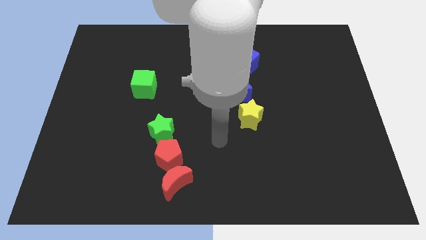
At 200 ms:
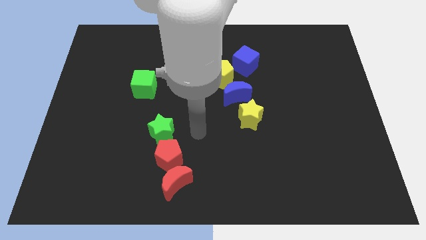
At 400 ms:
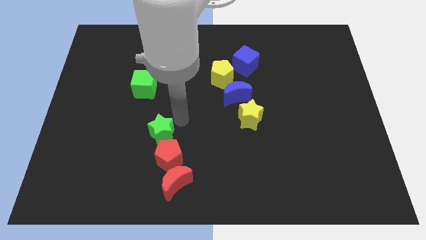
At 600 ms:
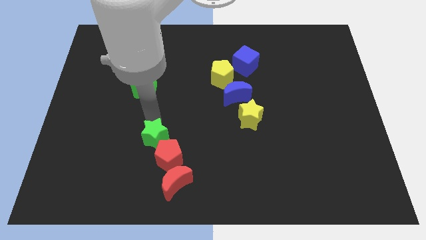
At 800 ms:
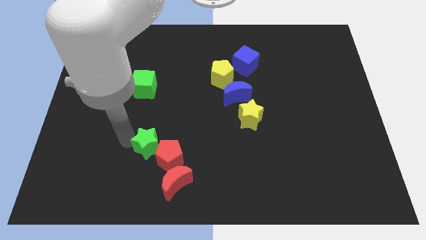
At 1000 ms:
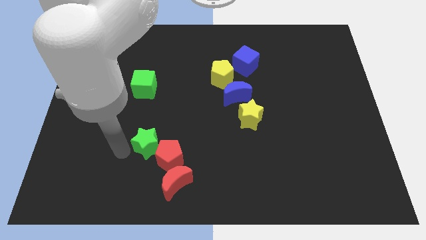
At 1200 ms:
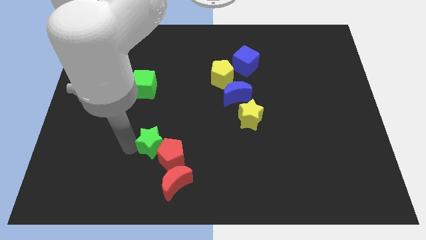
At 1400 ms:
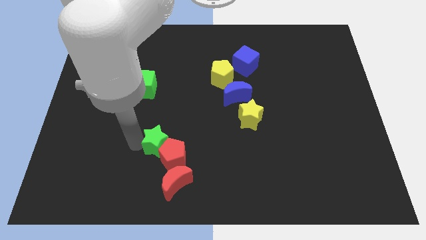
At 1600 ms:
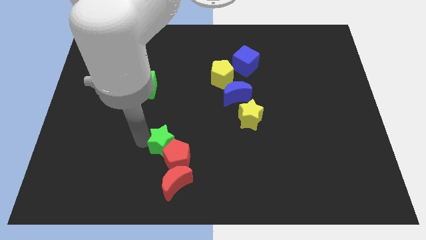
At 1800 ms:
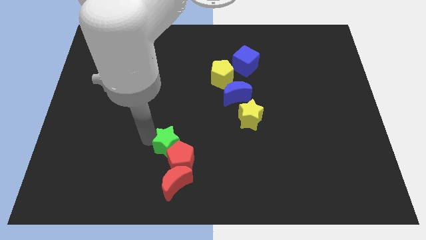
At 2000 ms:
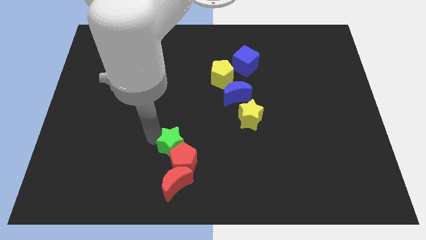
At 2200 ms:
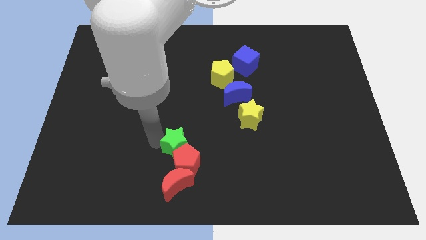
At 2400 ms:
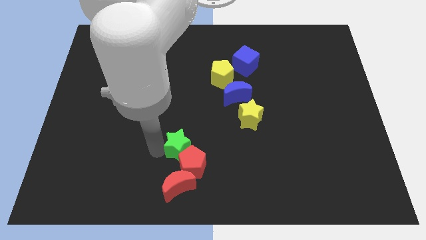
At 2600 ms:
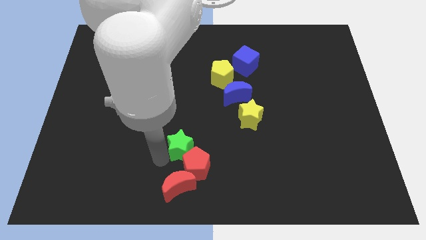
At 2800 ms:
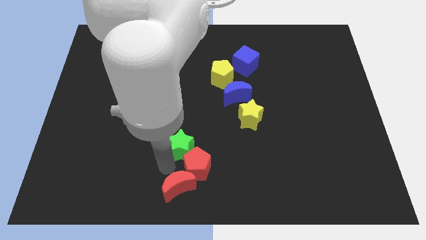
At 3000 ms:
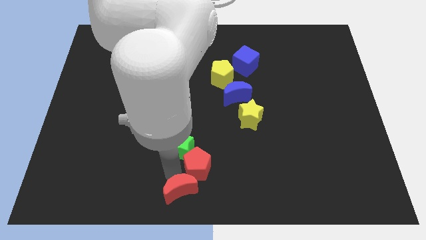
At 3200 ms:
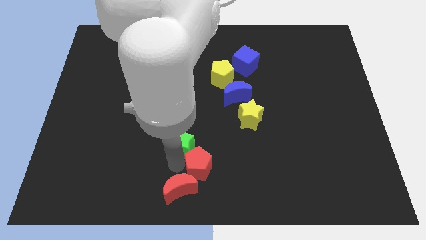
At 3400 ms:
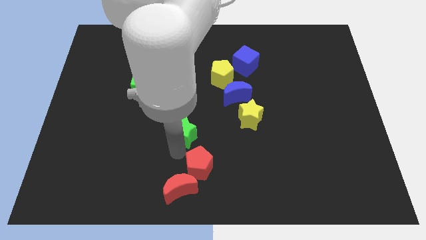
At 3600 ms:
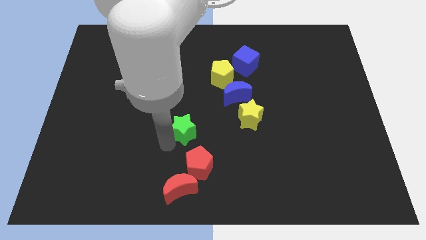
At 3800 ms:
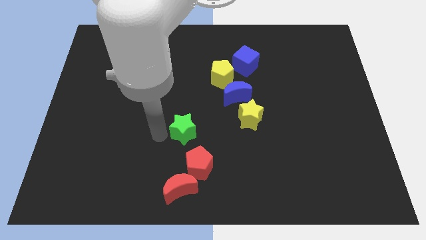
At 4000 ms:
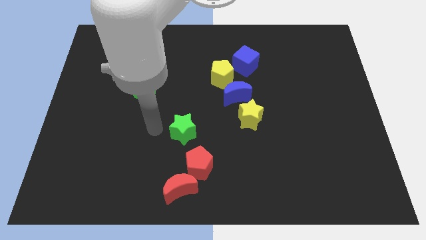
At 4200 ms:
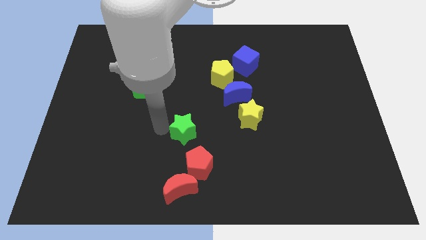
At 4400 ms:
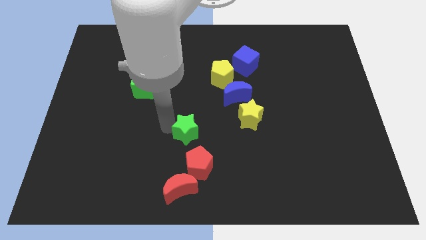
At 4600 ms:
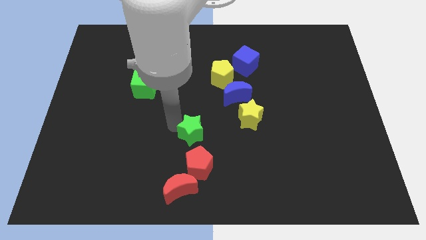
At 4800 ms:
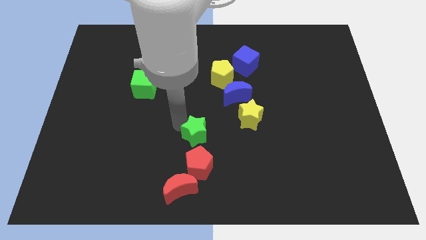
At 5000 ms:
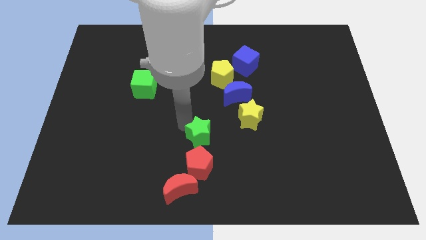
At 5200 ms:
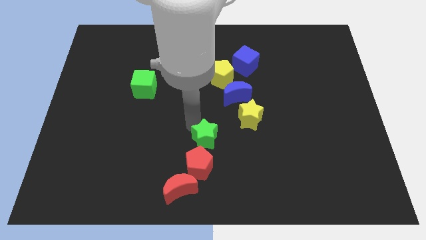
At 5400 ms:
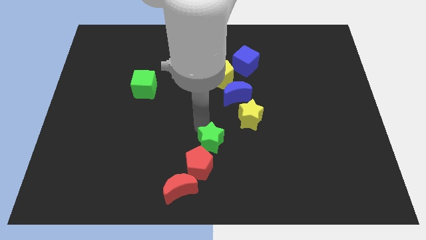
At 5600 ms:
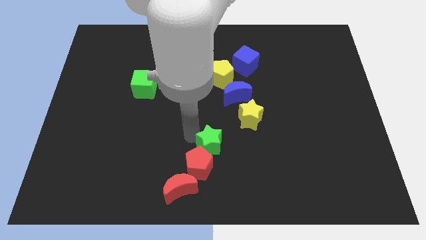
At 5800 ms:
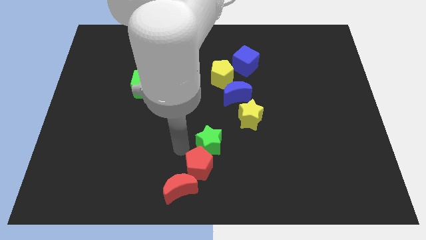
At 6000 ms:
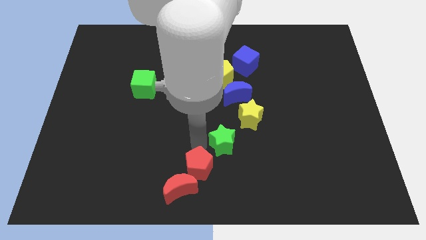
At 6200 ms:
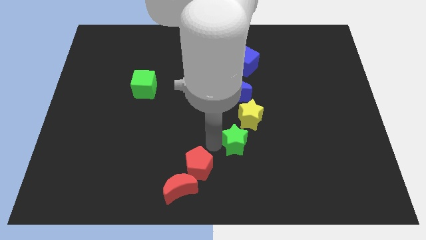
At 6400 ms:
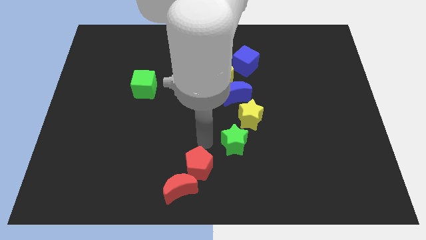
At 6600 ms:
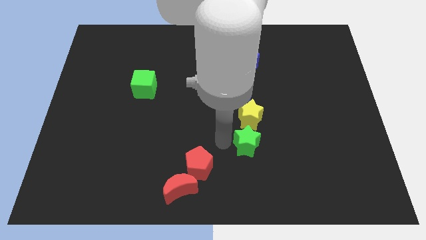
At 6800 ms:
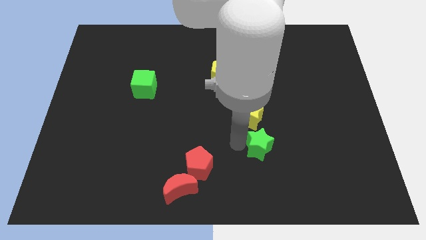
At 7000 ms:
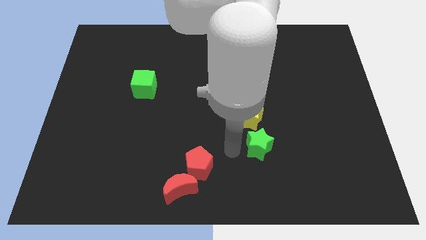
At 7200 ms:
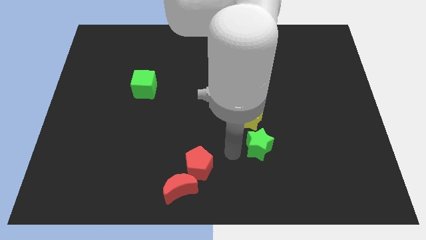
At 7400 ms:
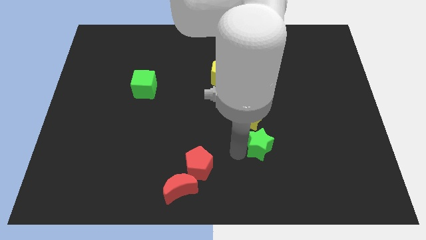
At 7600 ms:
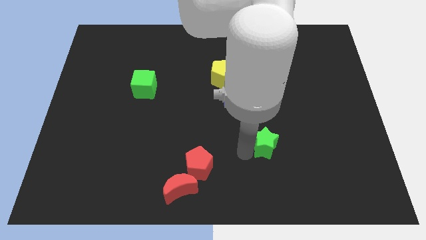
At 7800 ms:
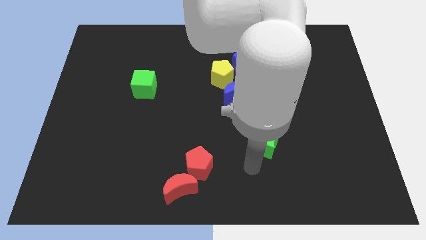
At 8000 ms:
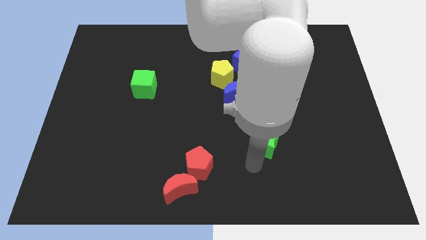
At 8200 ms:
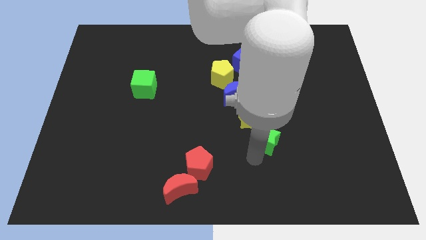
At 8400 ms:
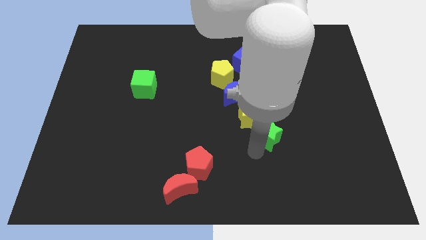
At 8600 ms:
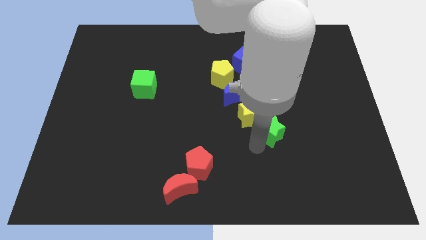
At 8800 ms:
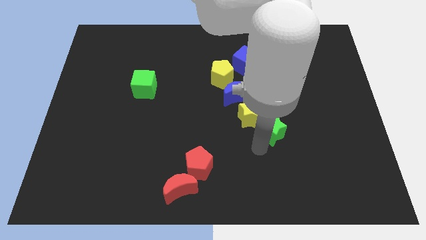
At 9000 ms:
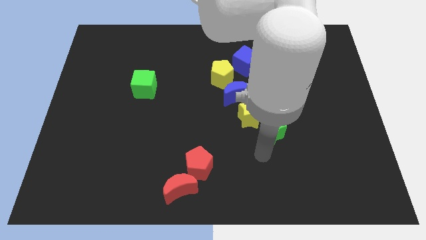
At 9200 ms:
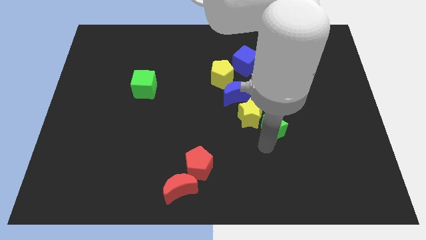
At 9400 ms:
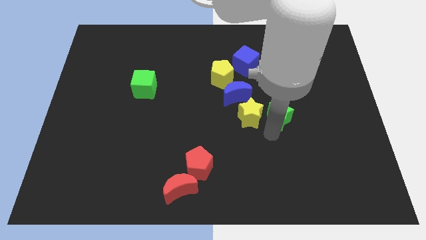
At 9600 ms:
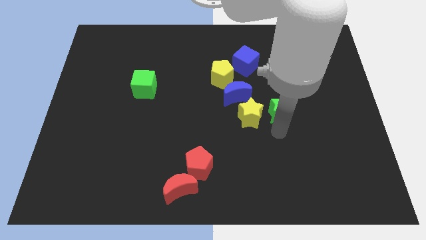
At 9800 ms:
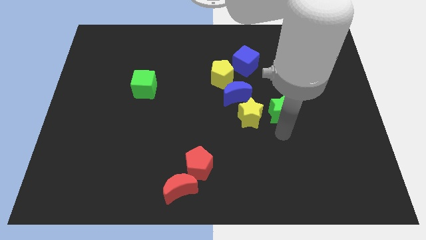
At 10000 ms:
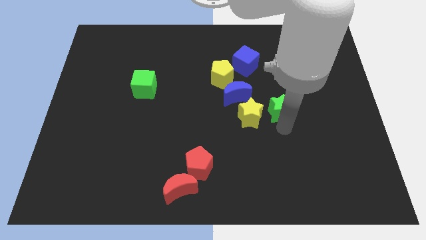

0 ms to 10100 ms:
push the green star right of the blue moon

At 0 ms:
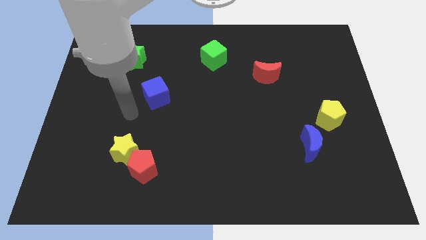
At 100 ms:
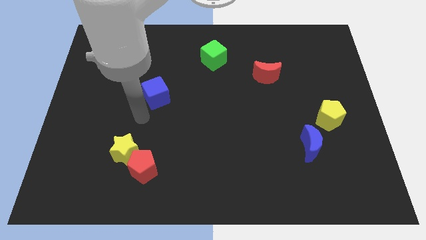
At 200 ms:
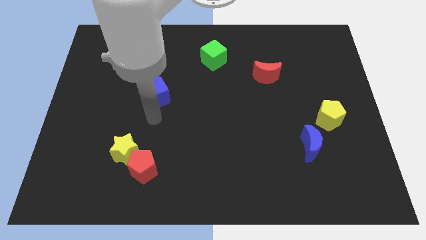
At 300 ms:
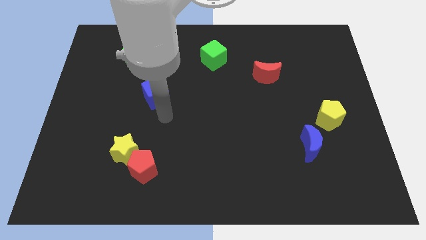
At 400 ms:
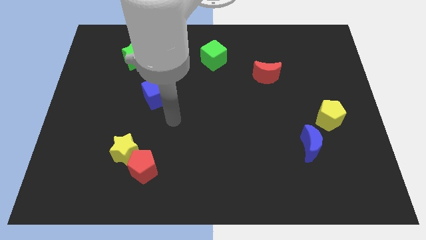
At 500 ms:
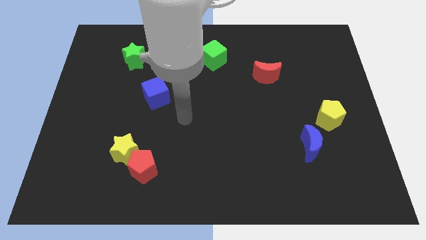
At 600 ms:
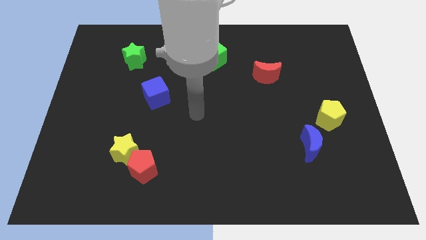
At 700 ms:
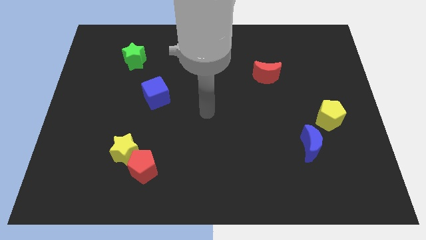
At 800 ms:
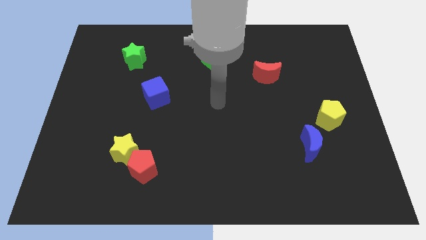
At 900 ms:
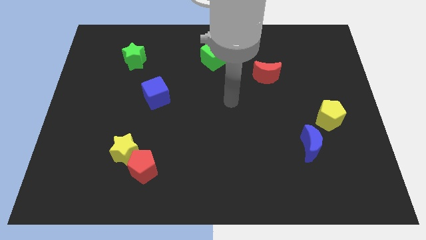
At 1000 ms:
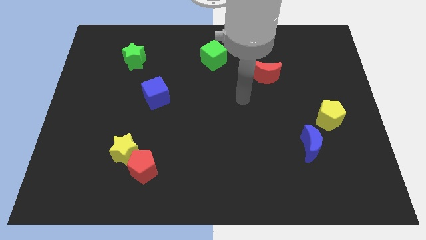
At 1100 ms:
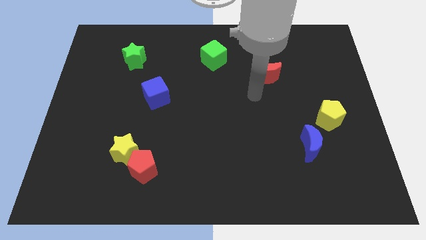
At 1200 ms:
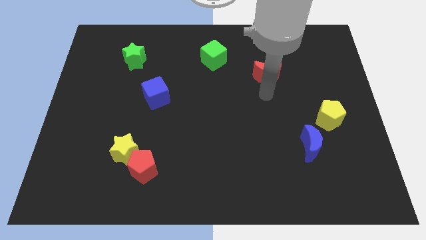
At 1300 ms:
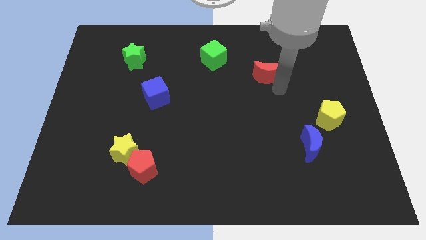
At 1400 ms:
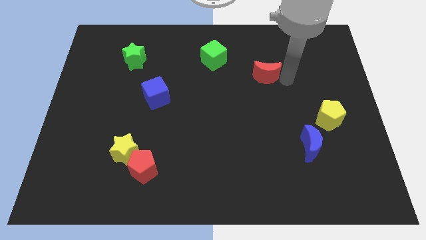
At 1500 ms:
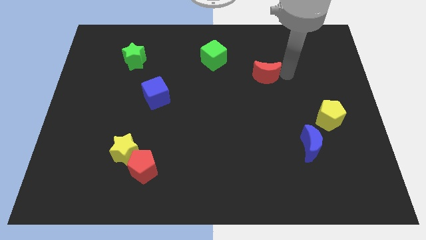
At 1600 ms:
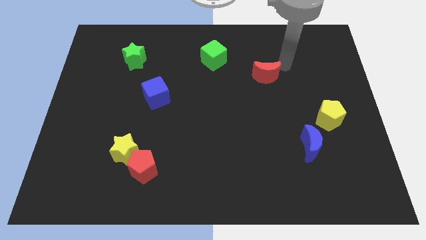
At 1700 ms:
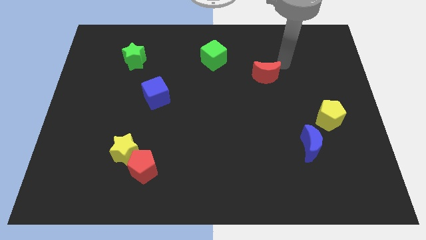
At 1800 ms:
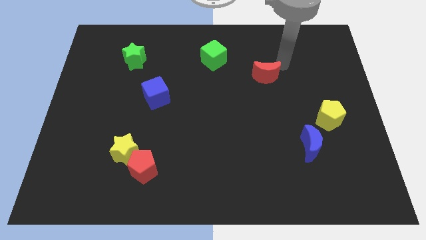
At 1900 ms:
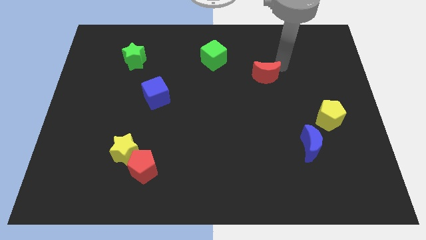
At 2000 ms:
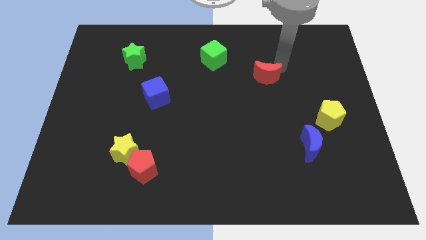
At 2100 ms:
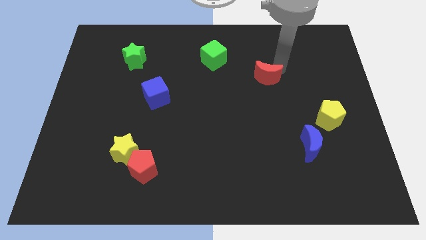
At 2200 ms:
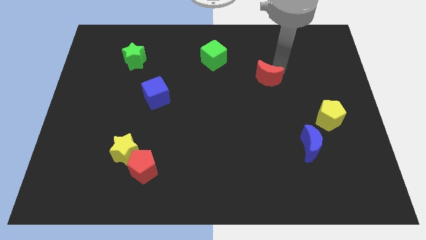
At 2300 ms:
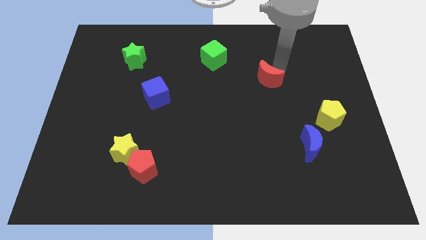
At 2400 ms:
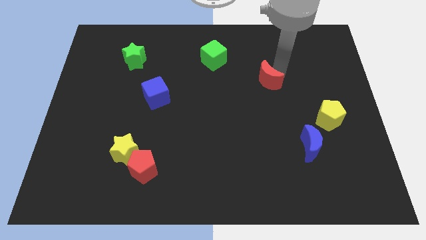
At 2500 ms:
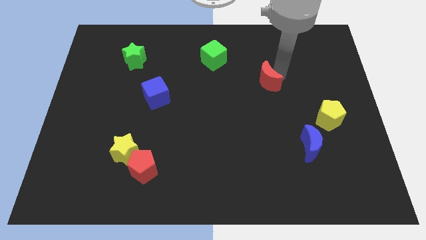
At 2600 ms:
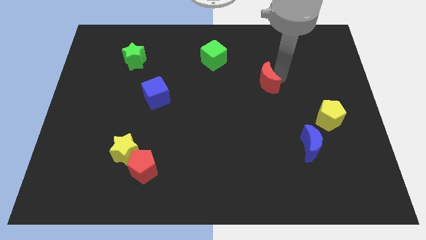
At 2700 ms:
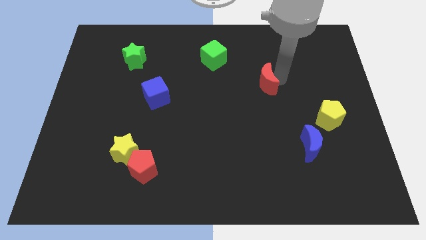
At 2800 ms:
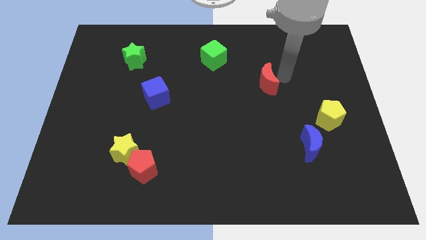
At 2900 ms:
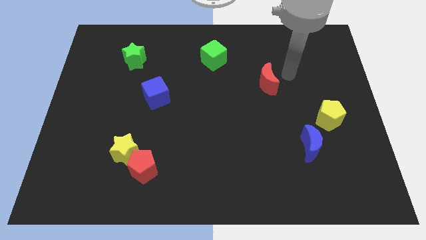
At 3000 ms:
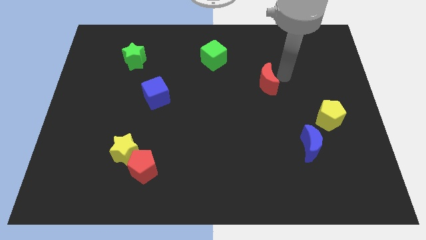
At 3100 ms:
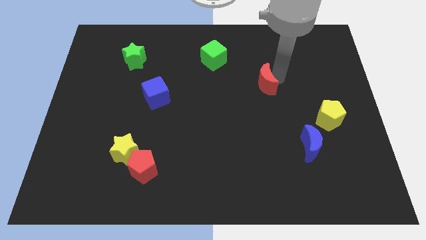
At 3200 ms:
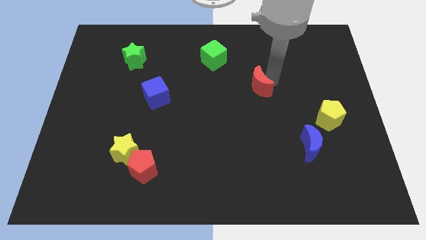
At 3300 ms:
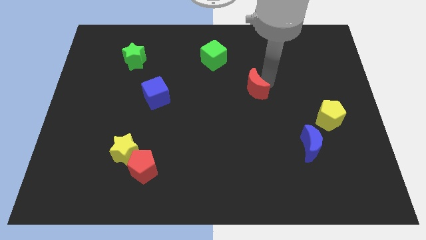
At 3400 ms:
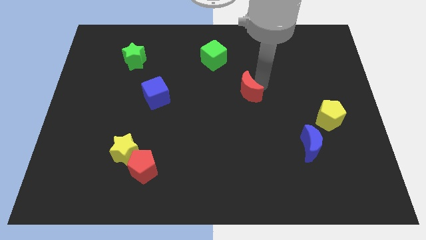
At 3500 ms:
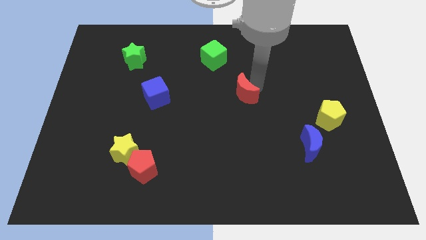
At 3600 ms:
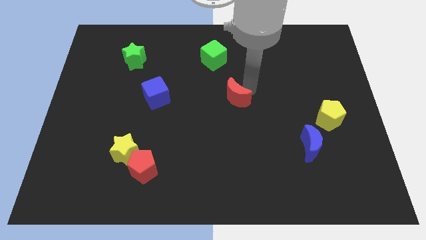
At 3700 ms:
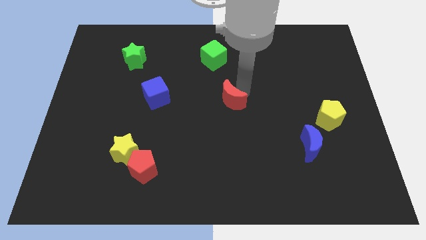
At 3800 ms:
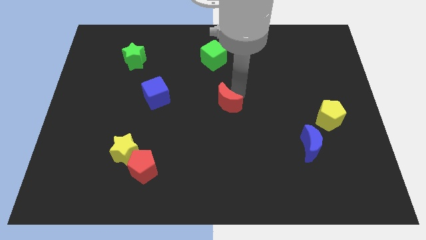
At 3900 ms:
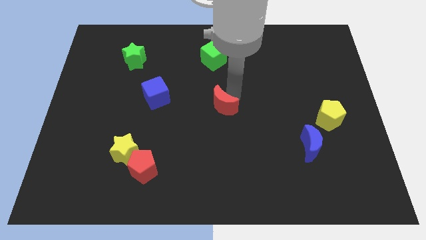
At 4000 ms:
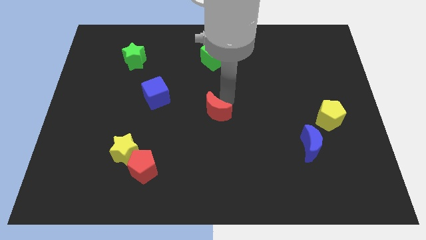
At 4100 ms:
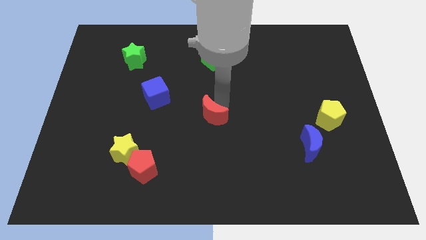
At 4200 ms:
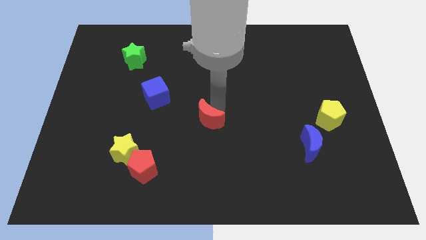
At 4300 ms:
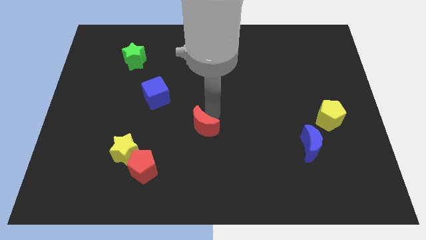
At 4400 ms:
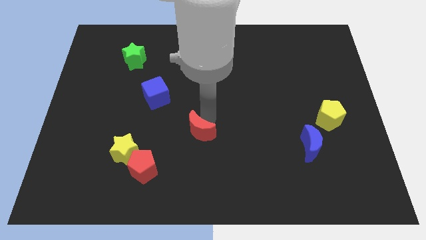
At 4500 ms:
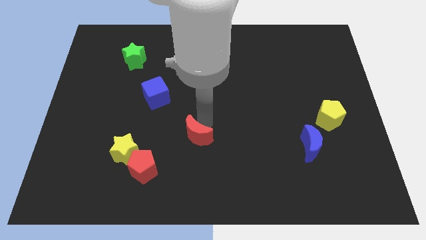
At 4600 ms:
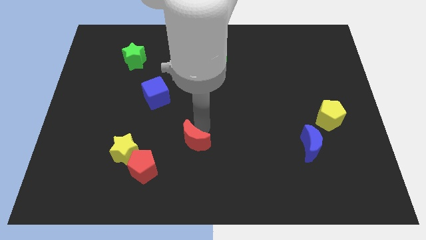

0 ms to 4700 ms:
push the red moon just right of the yellow star
